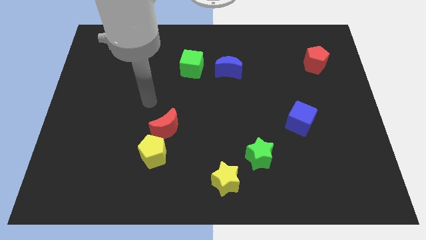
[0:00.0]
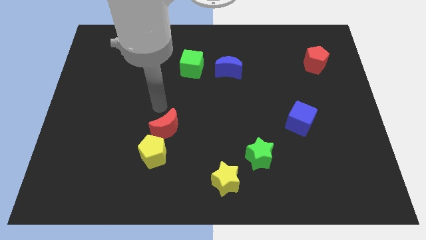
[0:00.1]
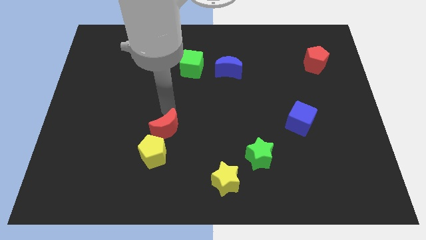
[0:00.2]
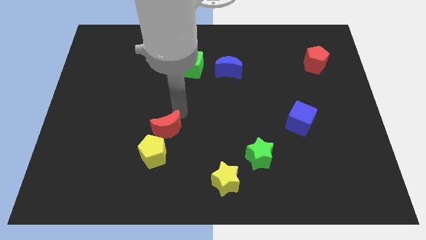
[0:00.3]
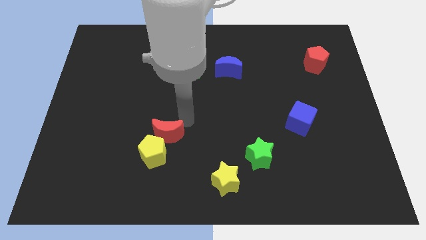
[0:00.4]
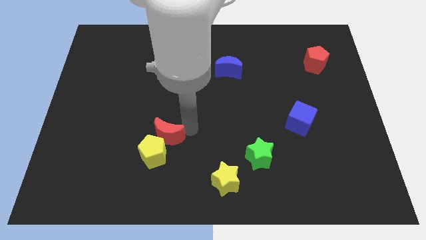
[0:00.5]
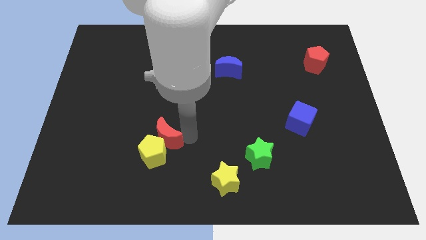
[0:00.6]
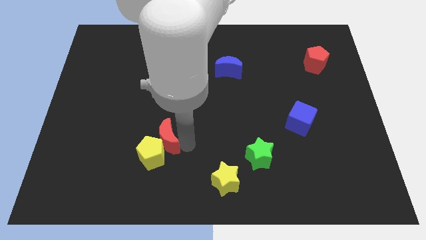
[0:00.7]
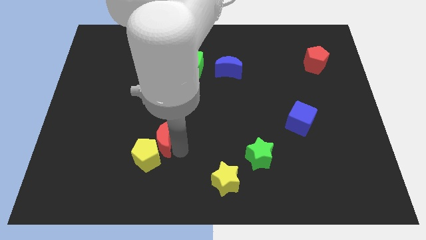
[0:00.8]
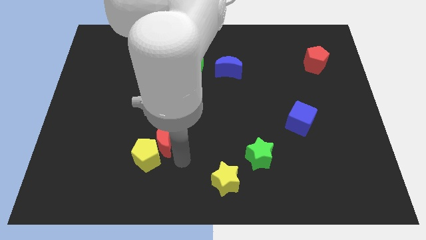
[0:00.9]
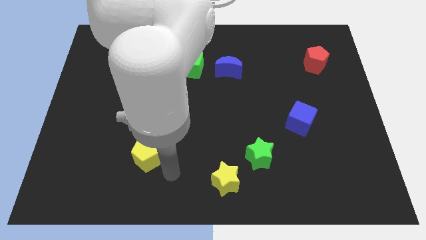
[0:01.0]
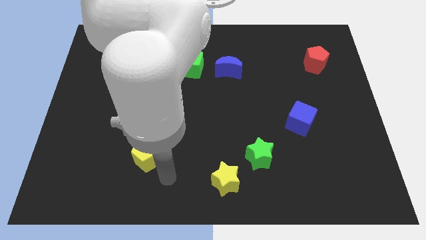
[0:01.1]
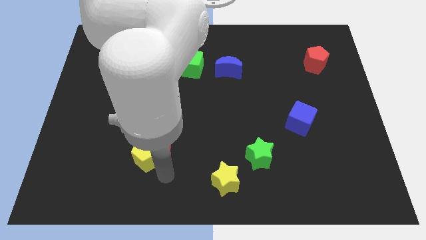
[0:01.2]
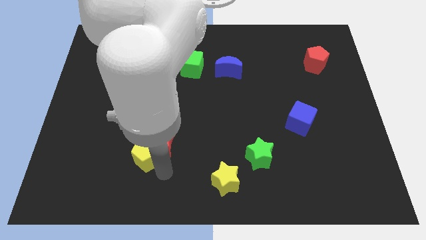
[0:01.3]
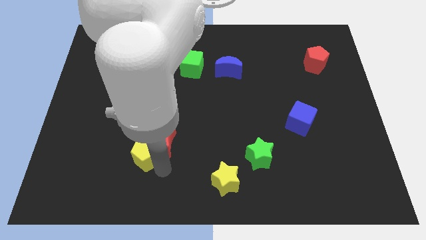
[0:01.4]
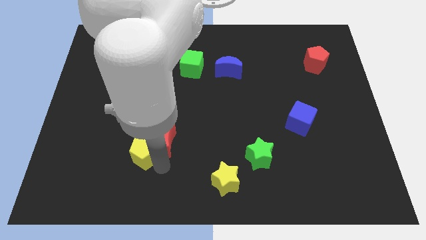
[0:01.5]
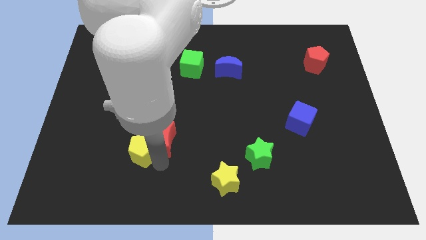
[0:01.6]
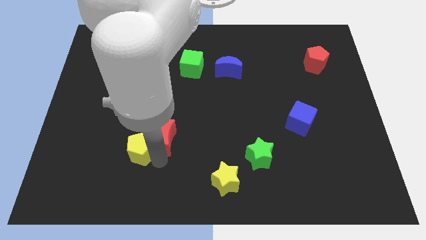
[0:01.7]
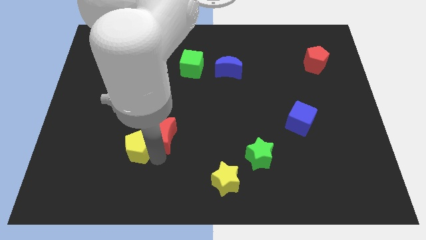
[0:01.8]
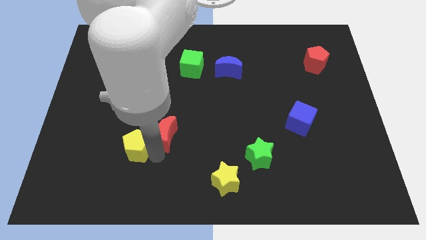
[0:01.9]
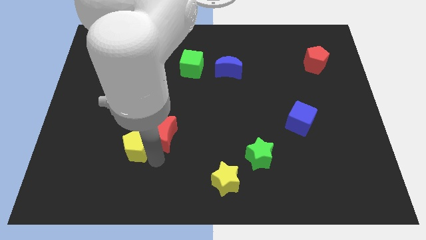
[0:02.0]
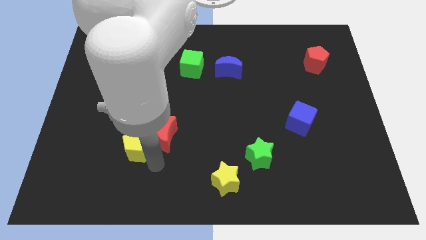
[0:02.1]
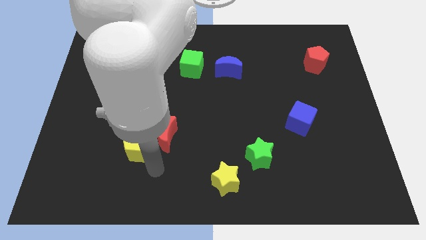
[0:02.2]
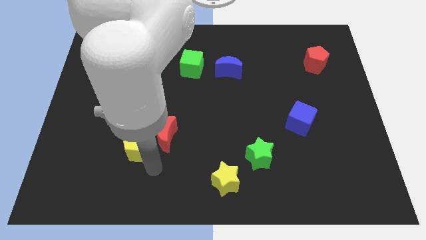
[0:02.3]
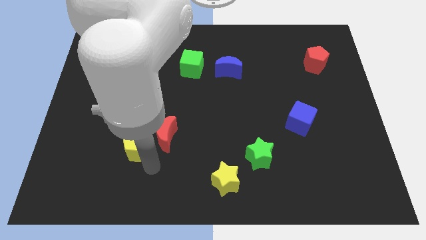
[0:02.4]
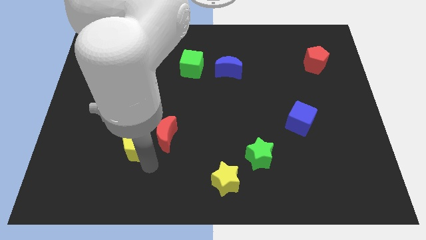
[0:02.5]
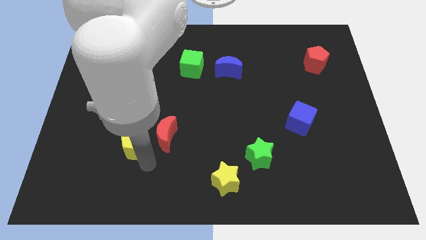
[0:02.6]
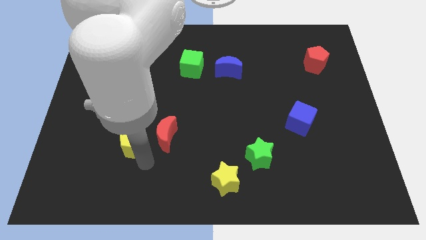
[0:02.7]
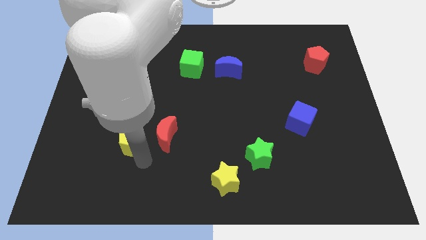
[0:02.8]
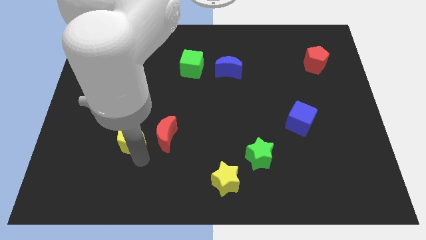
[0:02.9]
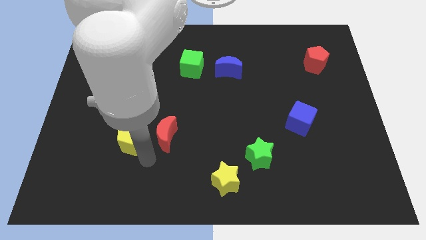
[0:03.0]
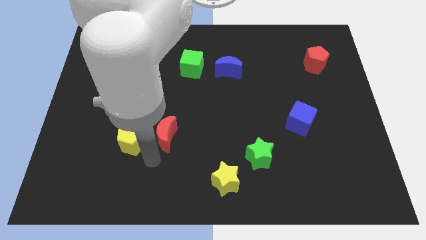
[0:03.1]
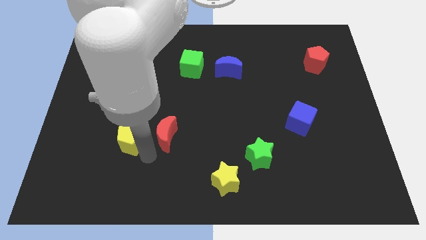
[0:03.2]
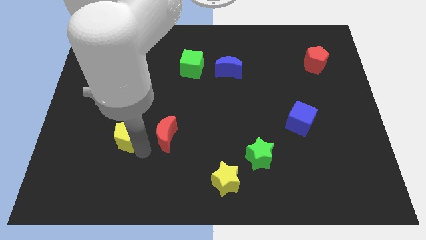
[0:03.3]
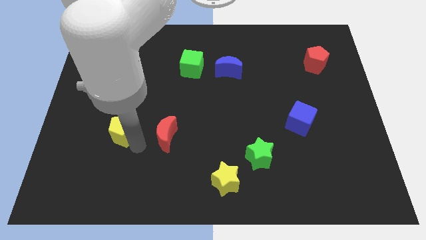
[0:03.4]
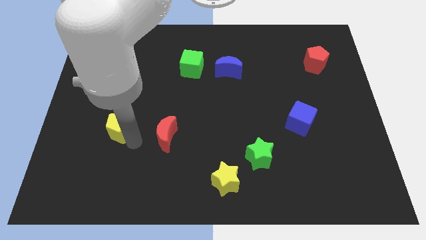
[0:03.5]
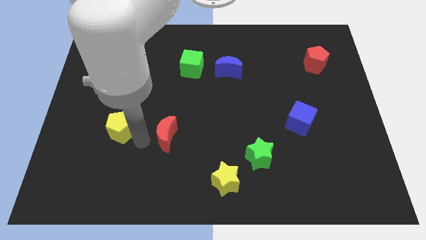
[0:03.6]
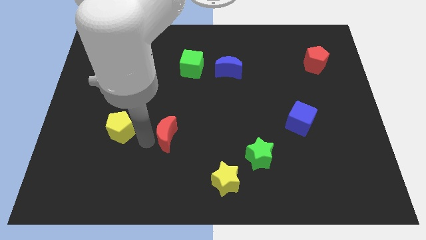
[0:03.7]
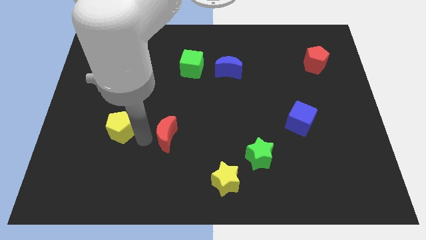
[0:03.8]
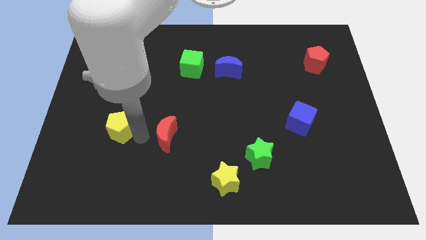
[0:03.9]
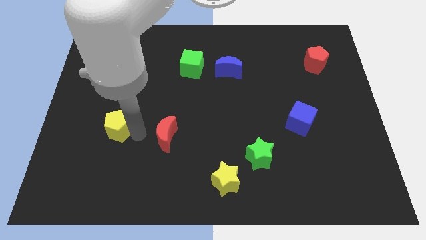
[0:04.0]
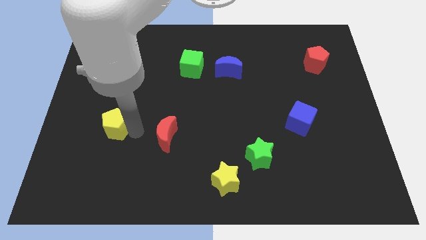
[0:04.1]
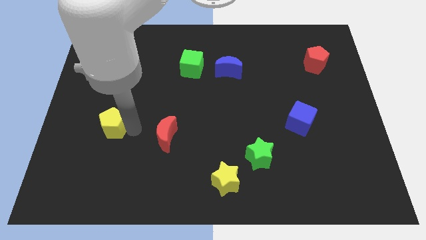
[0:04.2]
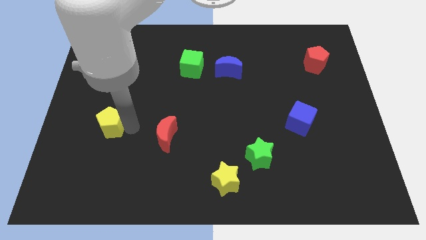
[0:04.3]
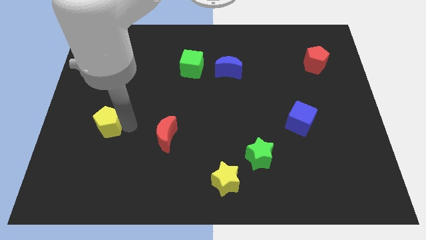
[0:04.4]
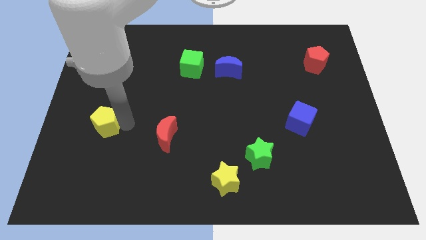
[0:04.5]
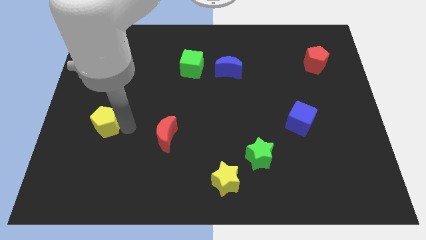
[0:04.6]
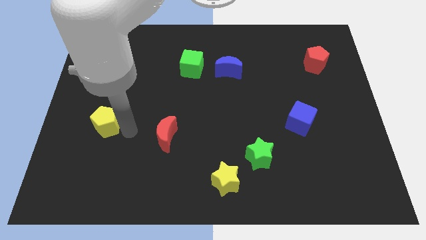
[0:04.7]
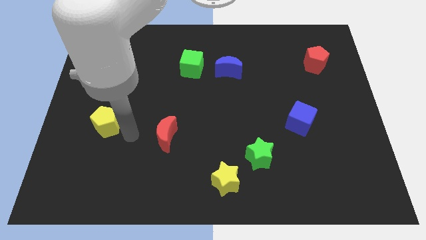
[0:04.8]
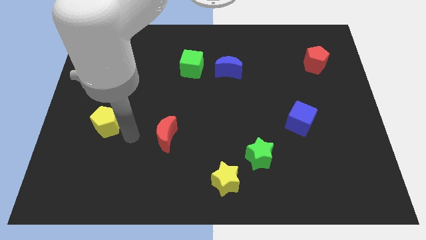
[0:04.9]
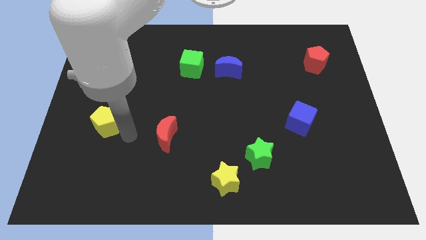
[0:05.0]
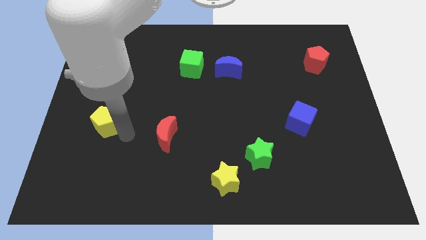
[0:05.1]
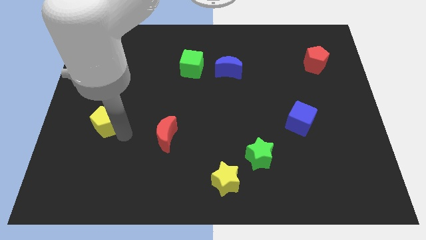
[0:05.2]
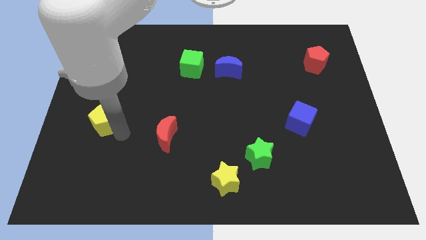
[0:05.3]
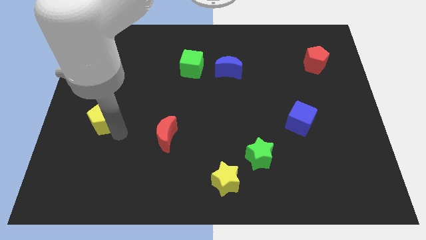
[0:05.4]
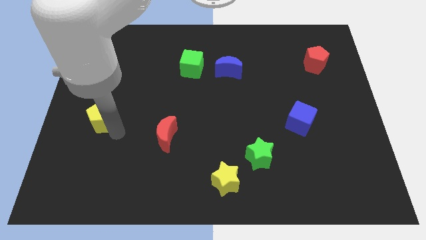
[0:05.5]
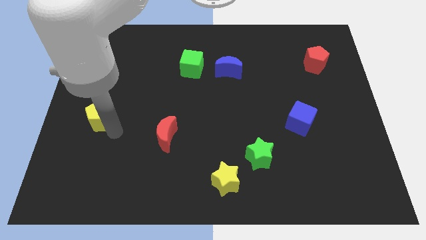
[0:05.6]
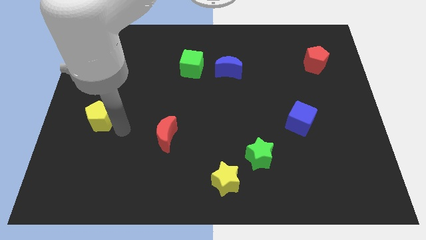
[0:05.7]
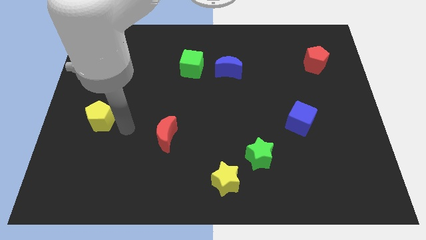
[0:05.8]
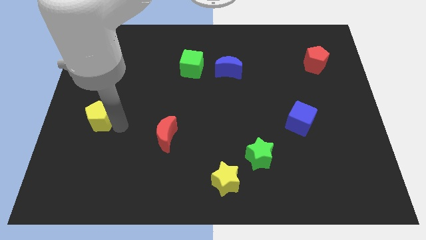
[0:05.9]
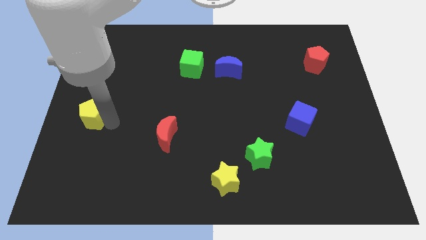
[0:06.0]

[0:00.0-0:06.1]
put the yellow pentagon to the center left

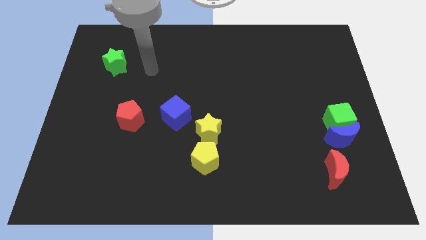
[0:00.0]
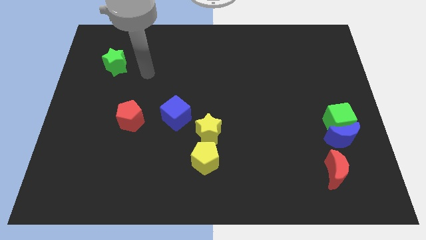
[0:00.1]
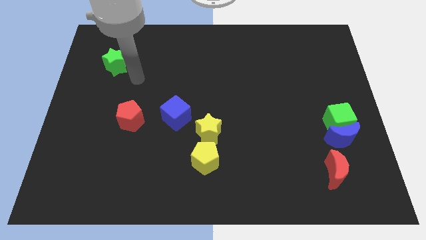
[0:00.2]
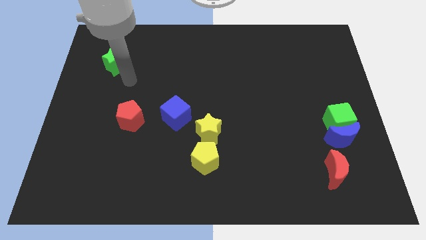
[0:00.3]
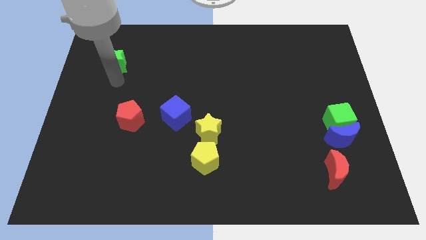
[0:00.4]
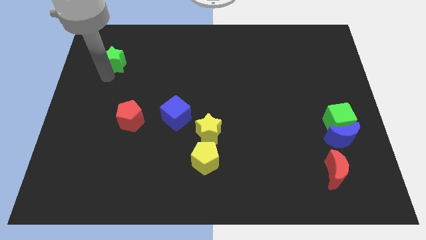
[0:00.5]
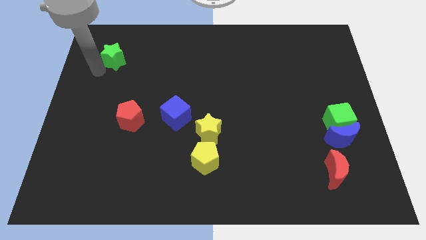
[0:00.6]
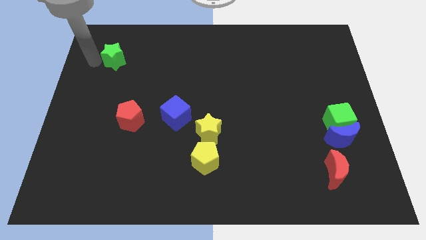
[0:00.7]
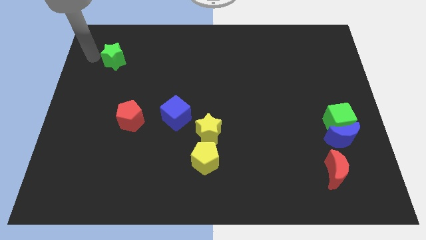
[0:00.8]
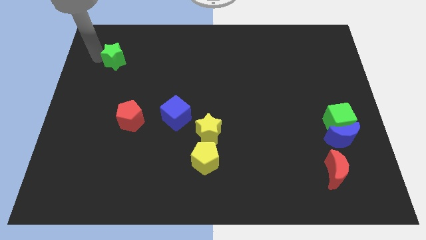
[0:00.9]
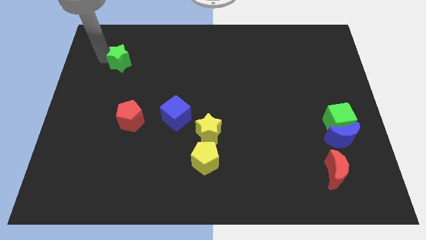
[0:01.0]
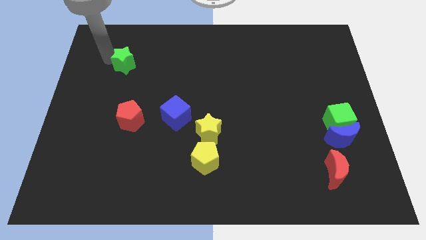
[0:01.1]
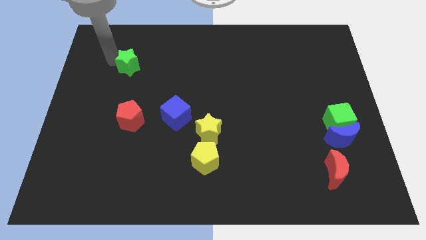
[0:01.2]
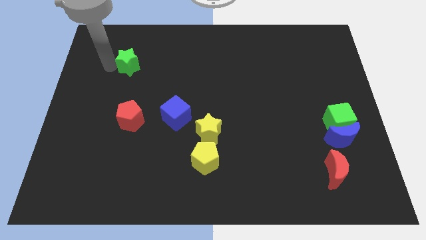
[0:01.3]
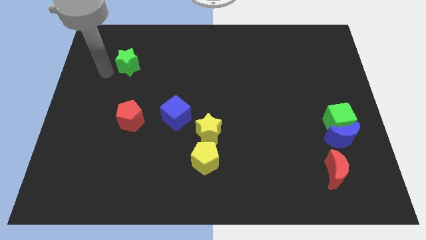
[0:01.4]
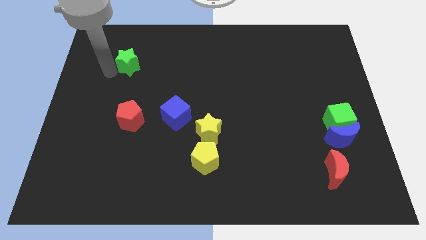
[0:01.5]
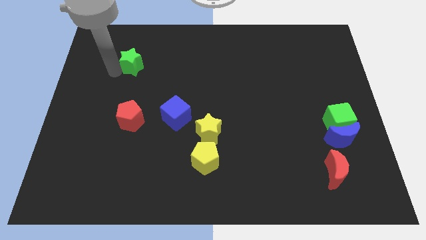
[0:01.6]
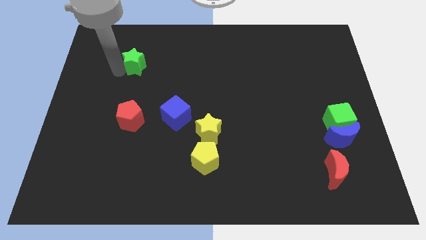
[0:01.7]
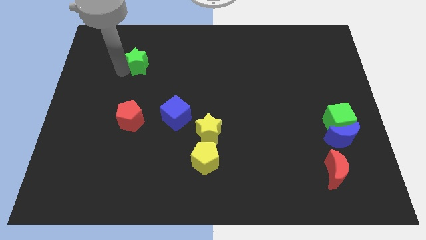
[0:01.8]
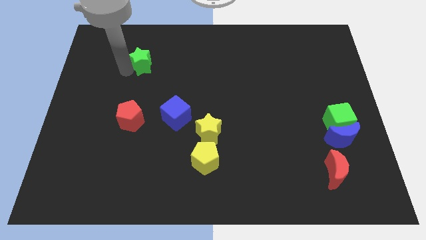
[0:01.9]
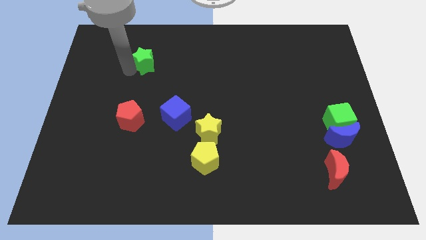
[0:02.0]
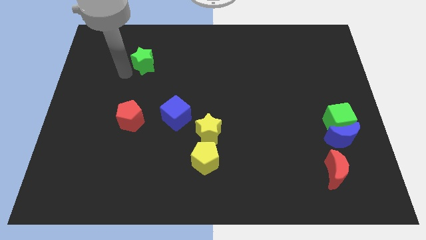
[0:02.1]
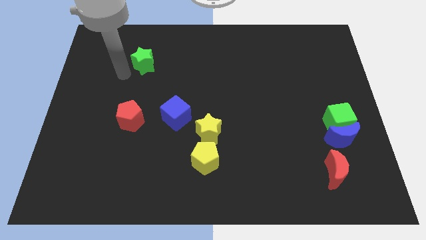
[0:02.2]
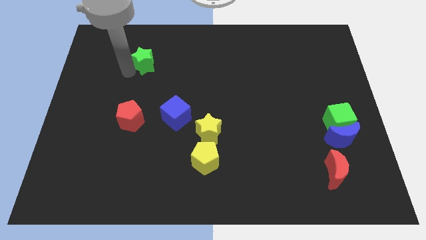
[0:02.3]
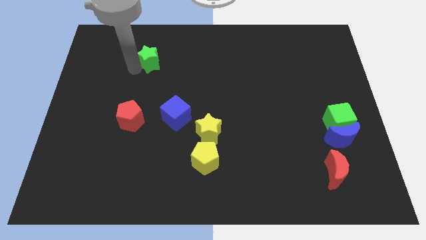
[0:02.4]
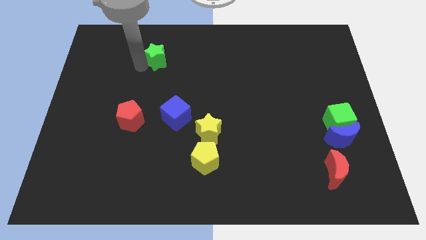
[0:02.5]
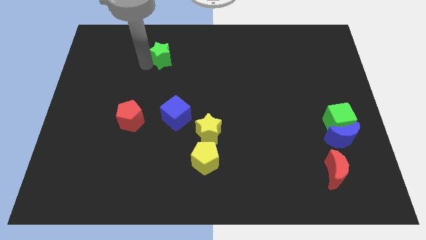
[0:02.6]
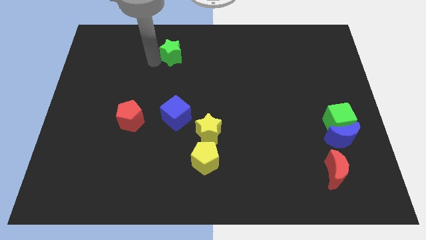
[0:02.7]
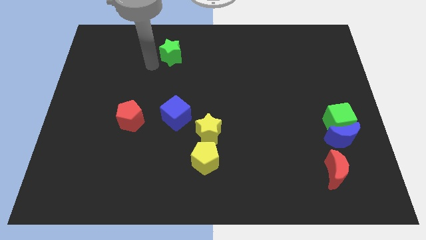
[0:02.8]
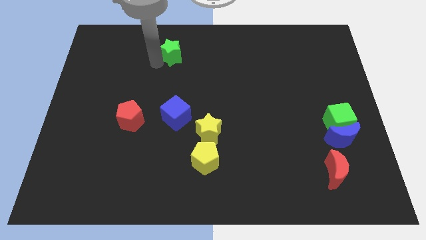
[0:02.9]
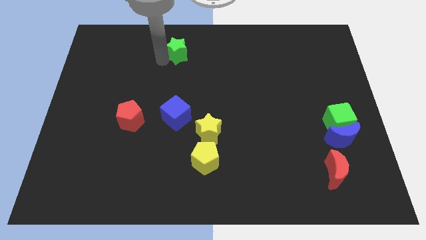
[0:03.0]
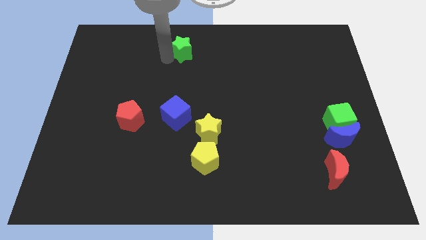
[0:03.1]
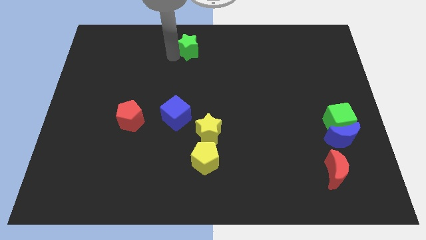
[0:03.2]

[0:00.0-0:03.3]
slide the green star to the towards your base
